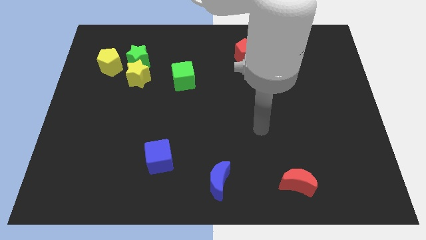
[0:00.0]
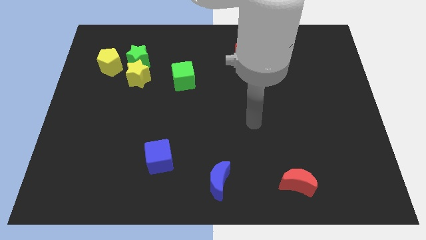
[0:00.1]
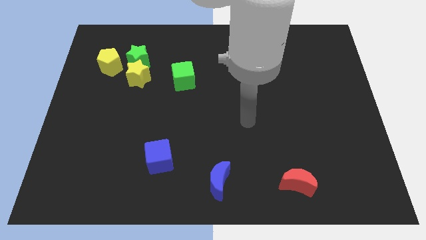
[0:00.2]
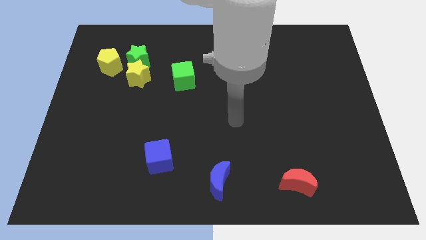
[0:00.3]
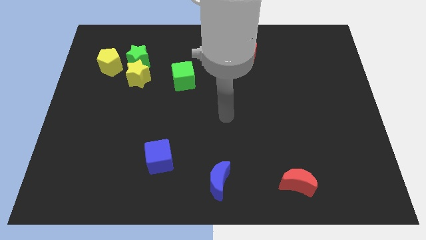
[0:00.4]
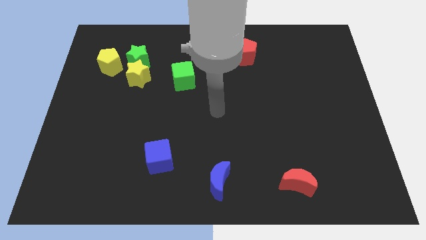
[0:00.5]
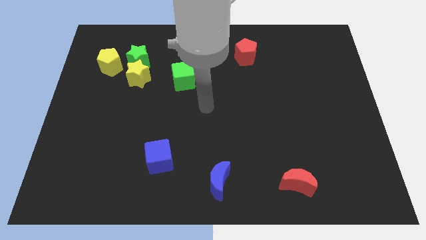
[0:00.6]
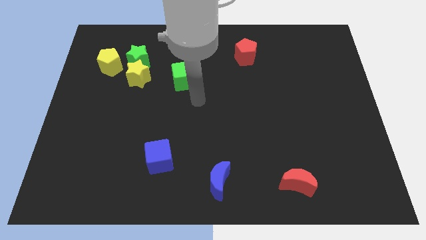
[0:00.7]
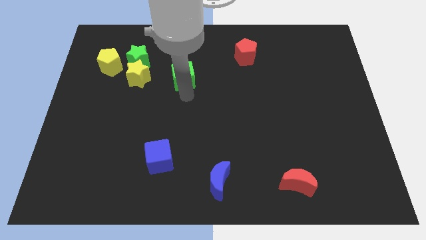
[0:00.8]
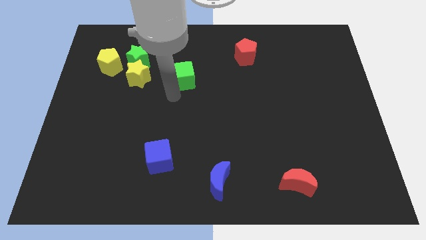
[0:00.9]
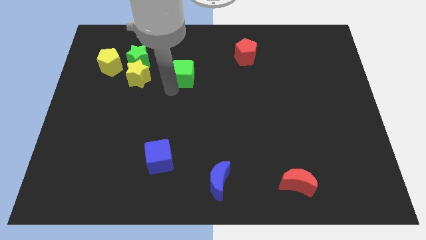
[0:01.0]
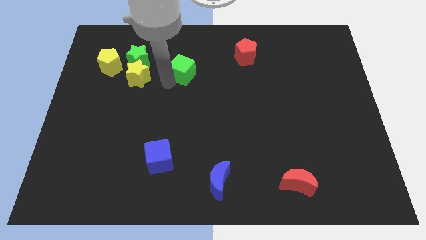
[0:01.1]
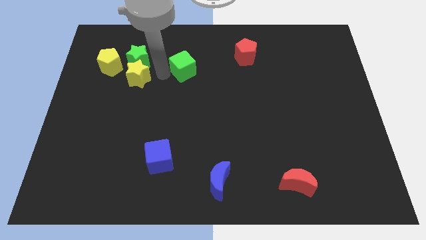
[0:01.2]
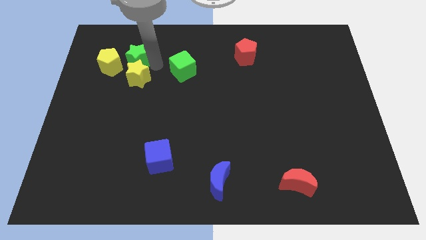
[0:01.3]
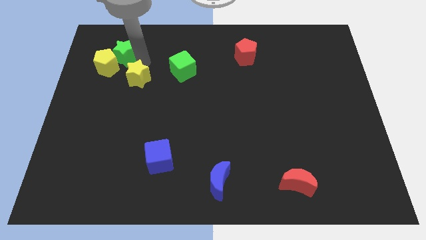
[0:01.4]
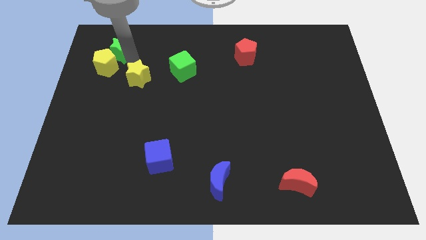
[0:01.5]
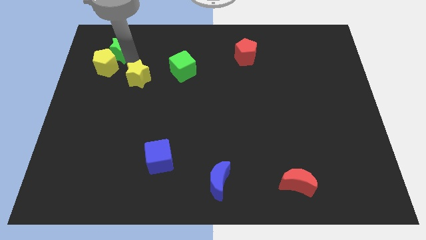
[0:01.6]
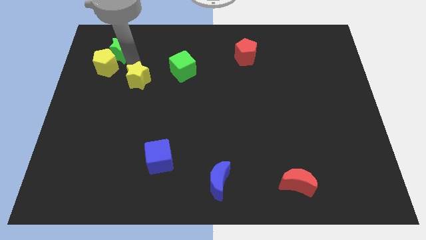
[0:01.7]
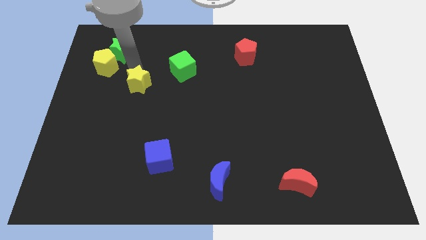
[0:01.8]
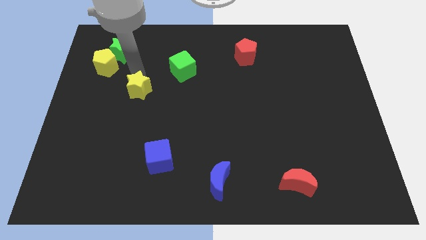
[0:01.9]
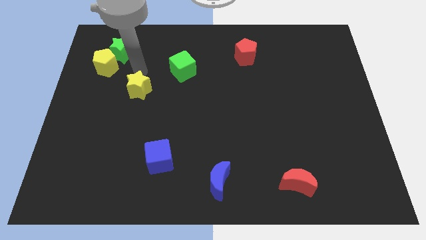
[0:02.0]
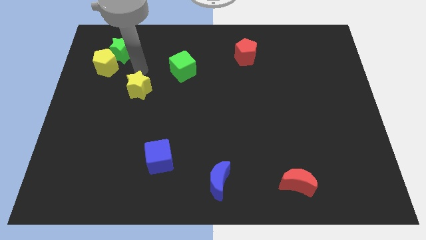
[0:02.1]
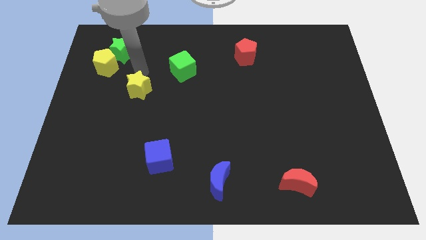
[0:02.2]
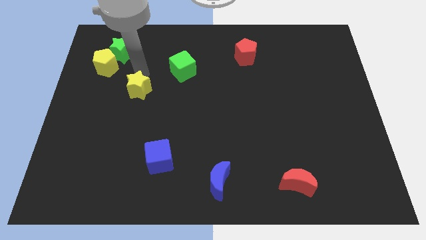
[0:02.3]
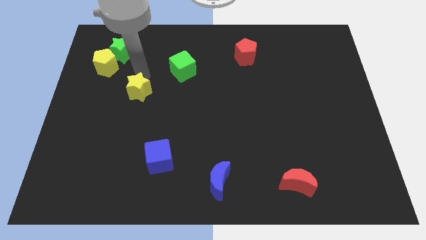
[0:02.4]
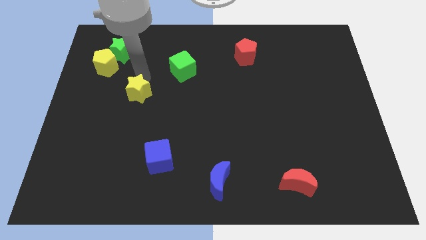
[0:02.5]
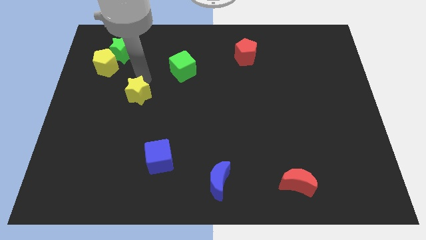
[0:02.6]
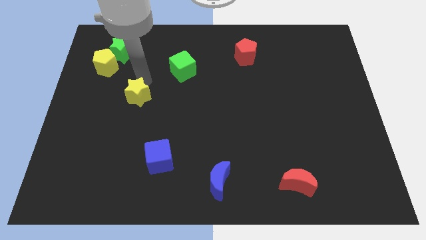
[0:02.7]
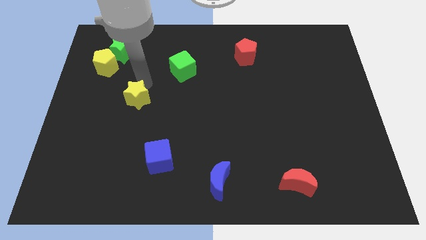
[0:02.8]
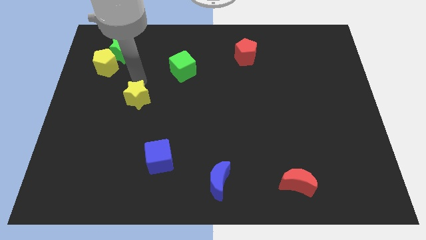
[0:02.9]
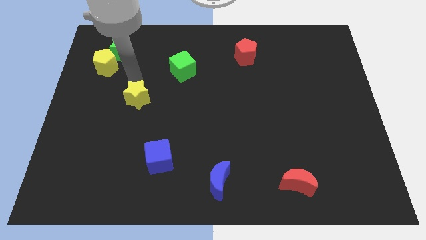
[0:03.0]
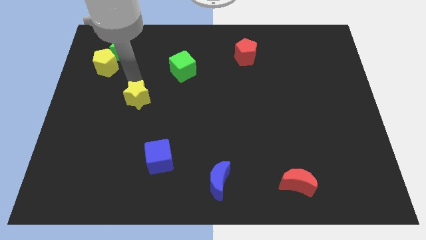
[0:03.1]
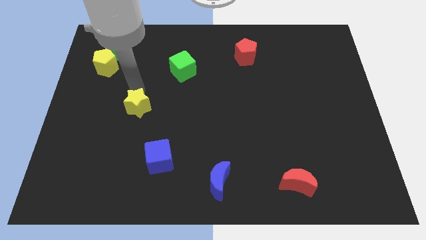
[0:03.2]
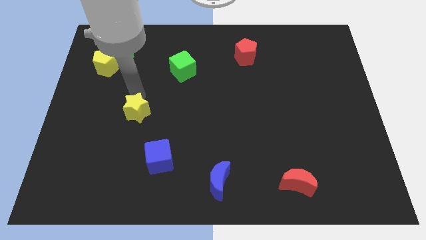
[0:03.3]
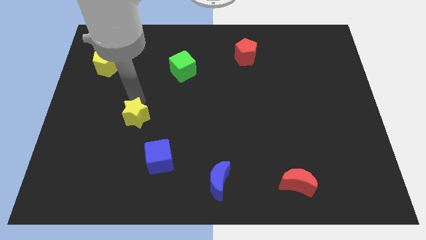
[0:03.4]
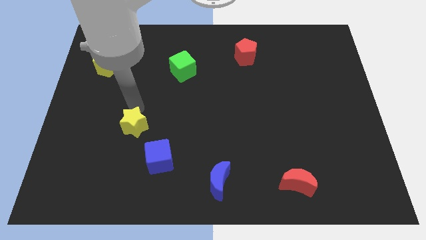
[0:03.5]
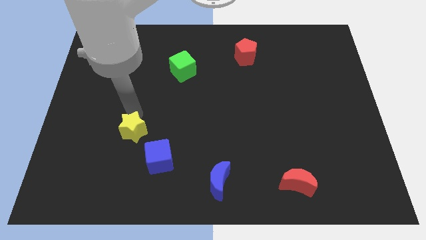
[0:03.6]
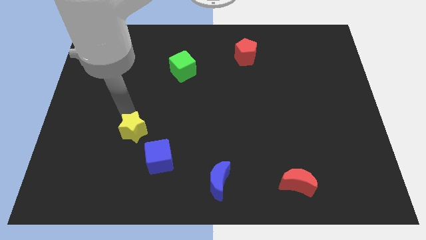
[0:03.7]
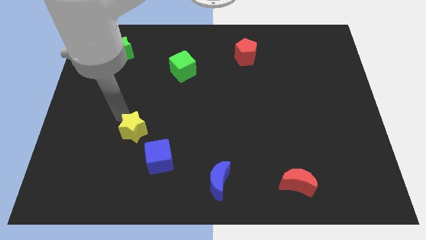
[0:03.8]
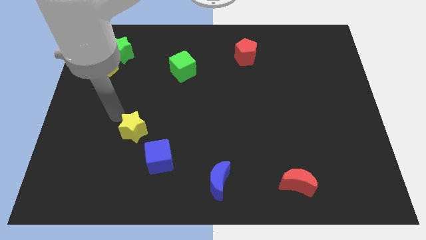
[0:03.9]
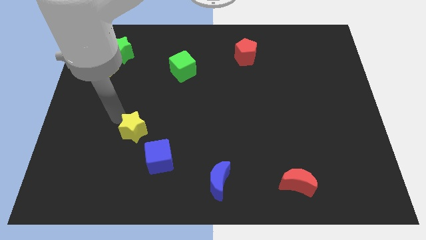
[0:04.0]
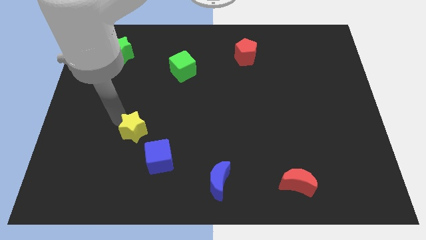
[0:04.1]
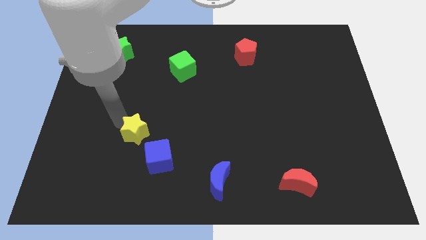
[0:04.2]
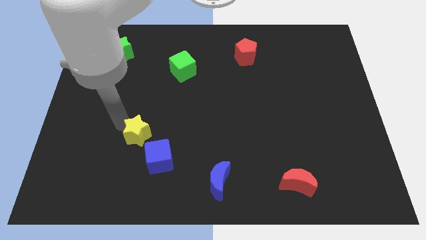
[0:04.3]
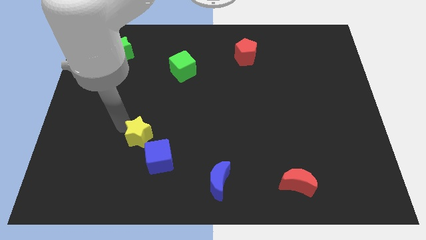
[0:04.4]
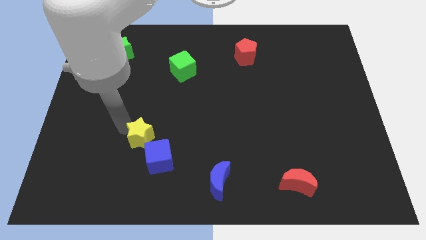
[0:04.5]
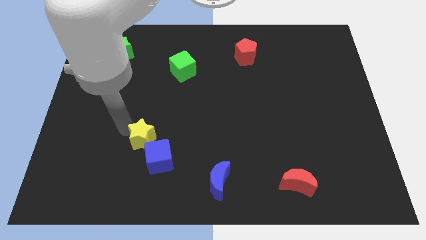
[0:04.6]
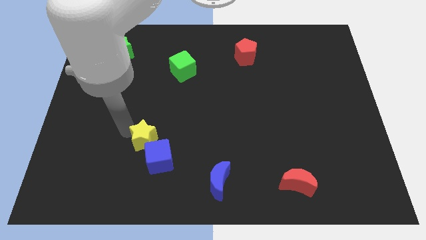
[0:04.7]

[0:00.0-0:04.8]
push the yellow star close to the blue cube

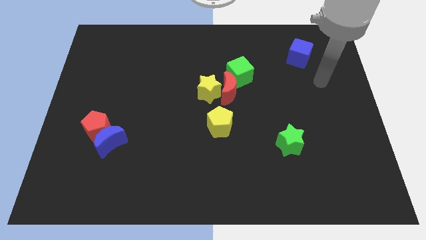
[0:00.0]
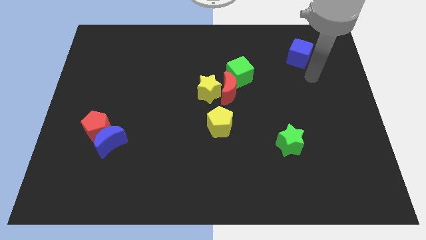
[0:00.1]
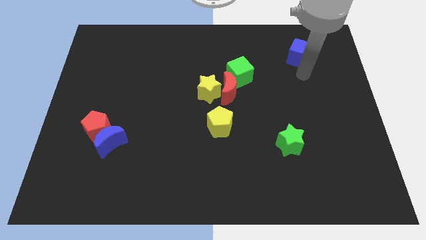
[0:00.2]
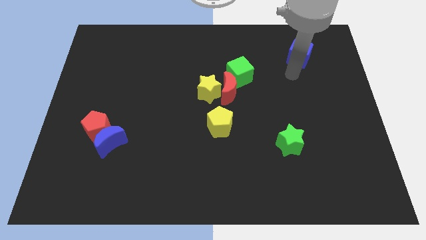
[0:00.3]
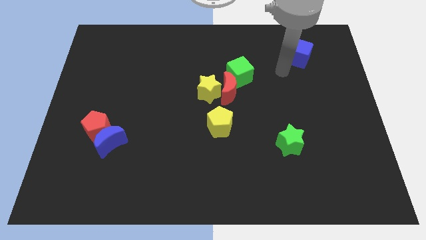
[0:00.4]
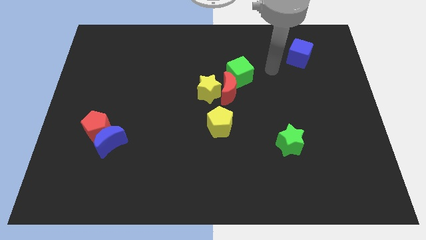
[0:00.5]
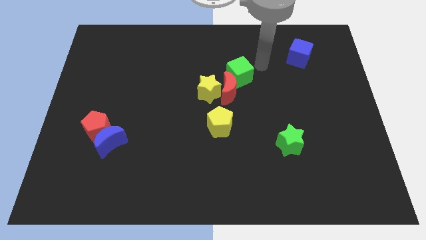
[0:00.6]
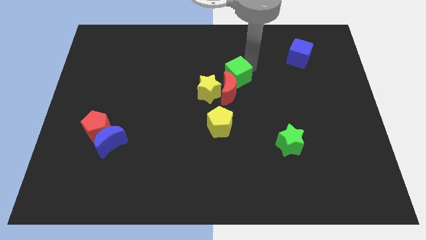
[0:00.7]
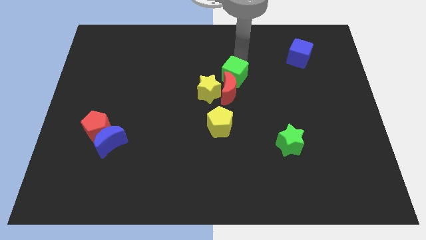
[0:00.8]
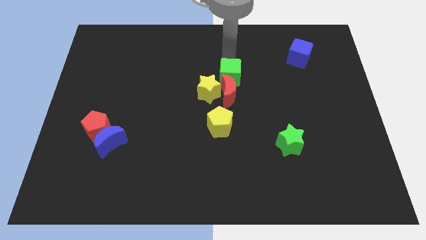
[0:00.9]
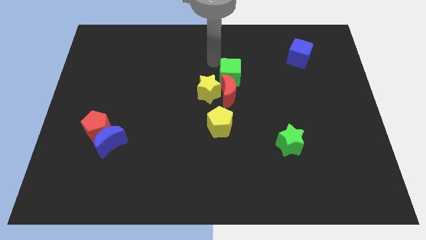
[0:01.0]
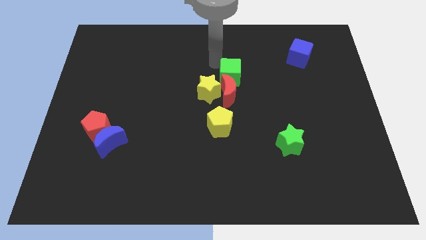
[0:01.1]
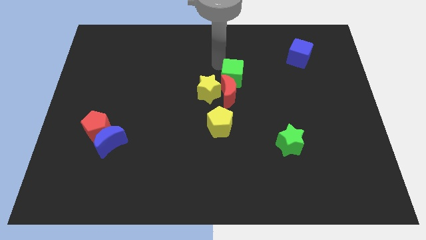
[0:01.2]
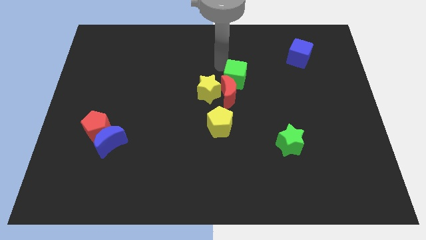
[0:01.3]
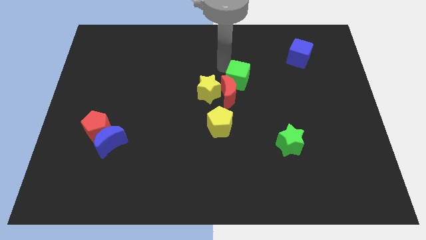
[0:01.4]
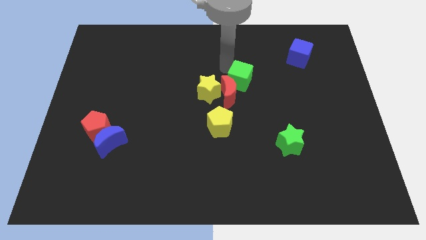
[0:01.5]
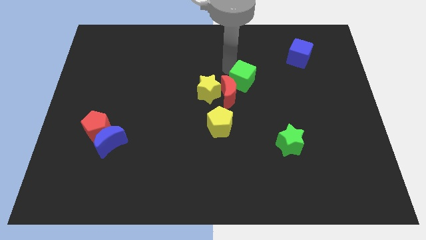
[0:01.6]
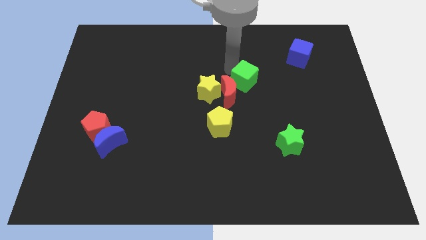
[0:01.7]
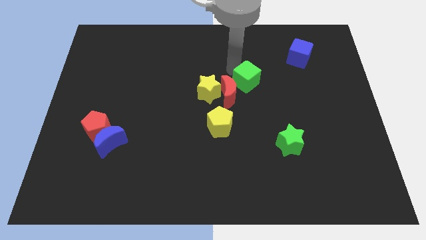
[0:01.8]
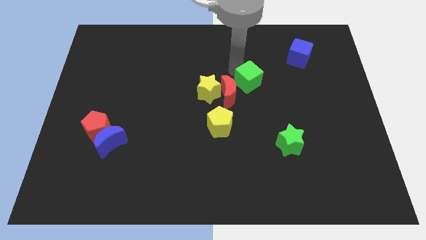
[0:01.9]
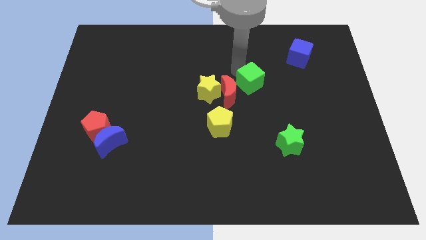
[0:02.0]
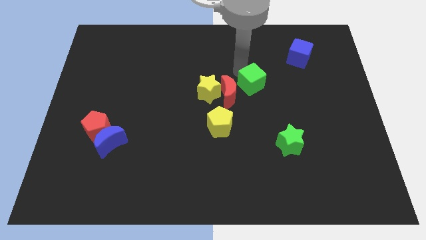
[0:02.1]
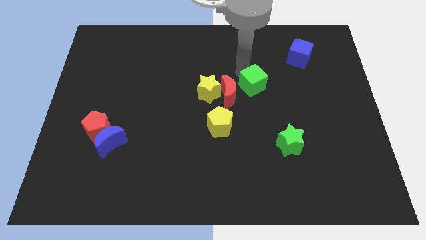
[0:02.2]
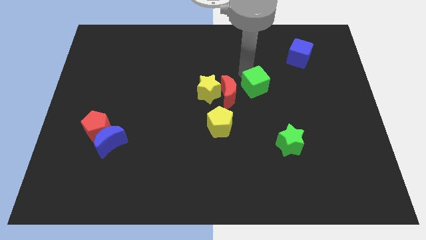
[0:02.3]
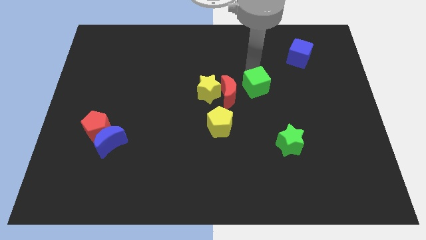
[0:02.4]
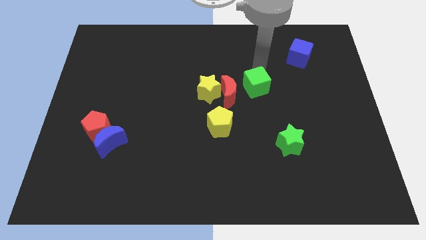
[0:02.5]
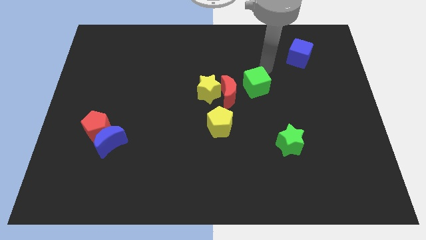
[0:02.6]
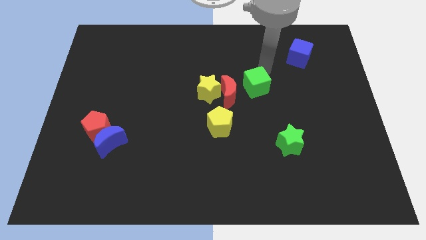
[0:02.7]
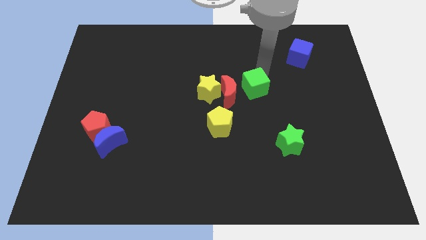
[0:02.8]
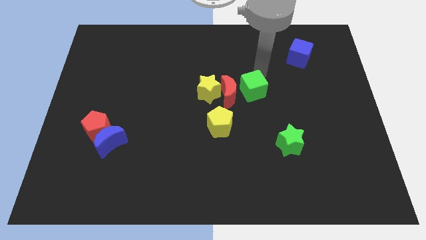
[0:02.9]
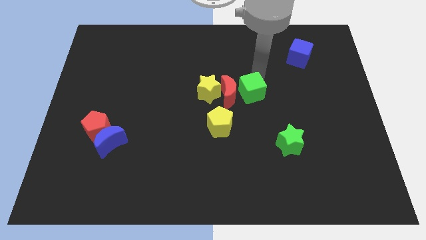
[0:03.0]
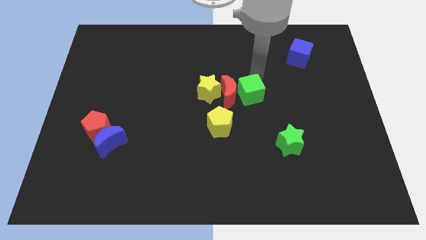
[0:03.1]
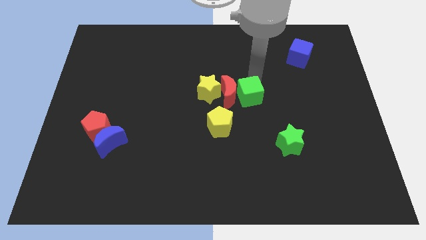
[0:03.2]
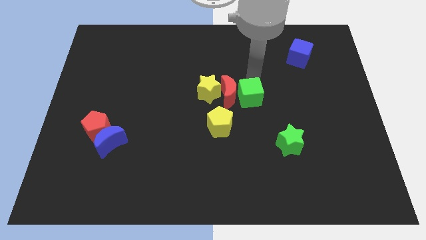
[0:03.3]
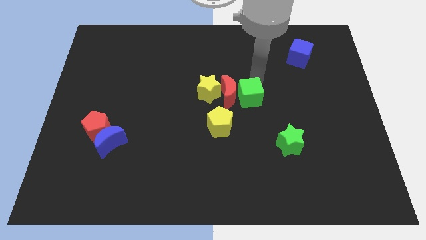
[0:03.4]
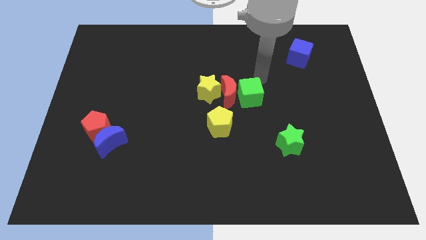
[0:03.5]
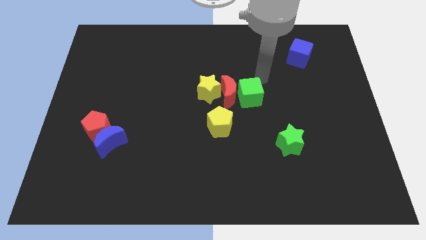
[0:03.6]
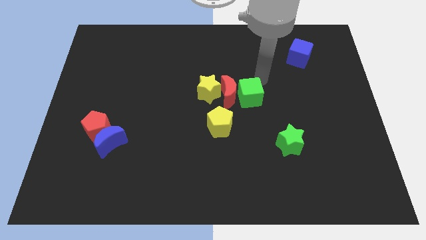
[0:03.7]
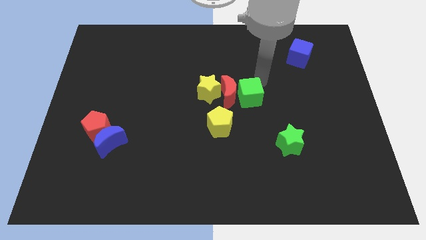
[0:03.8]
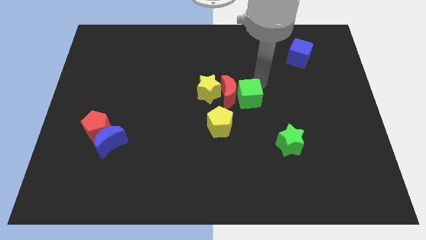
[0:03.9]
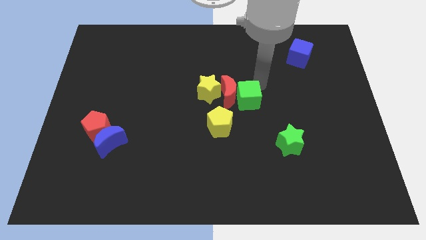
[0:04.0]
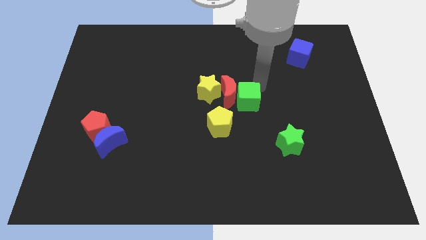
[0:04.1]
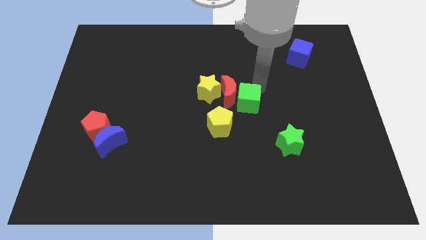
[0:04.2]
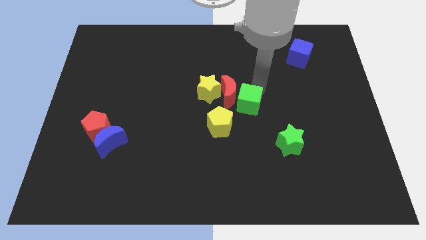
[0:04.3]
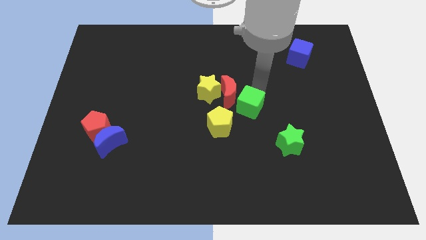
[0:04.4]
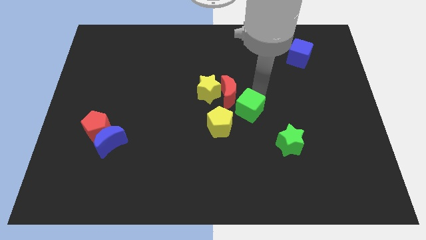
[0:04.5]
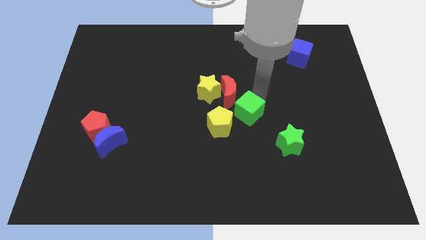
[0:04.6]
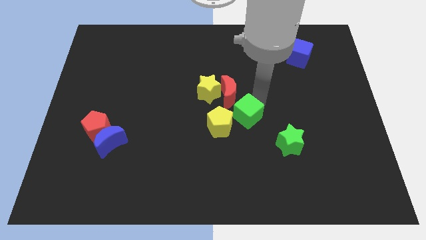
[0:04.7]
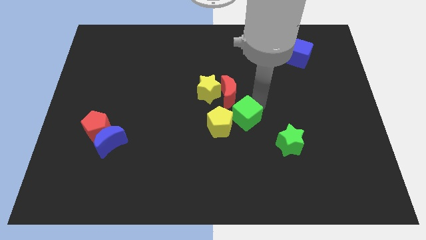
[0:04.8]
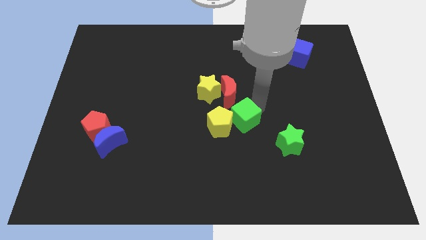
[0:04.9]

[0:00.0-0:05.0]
push the green cube next to the yellow pentagon
